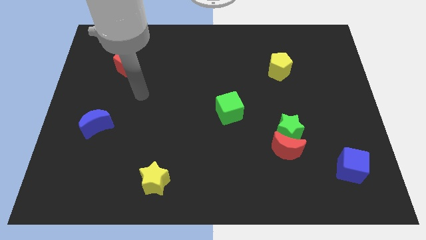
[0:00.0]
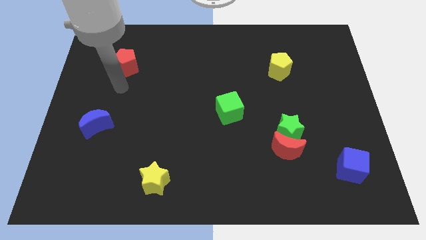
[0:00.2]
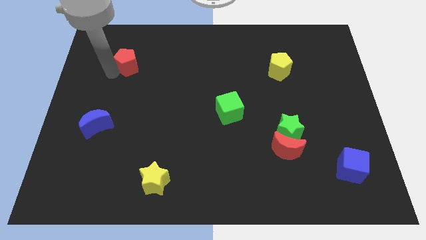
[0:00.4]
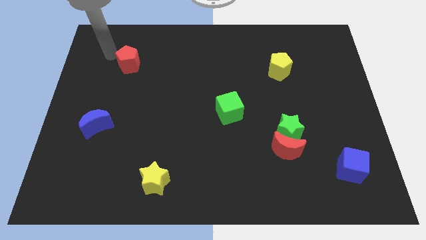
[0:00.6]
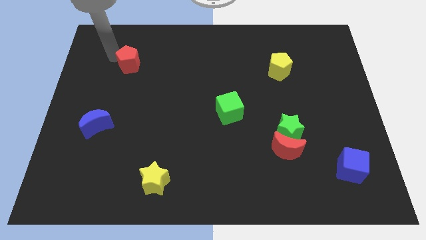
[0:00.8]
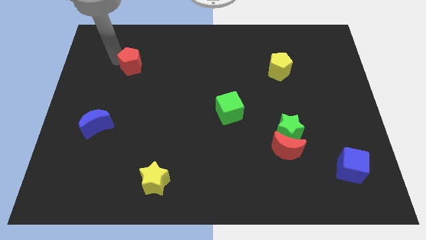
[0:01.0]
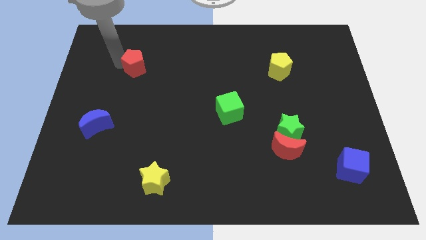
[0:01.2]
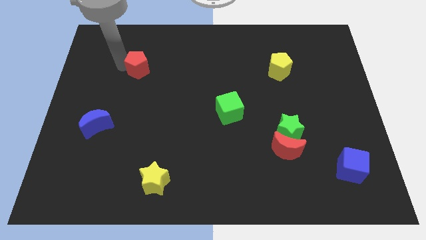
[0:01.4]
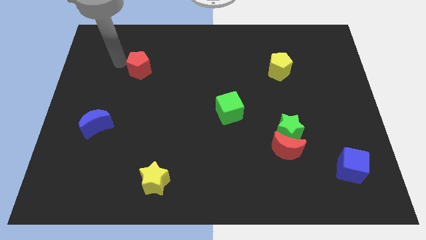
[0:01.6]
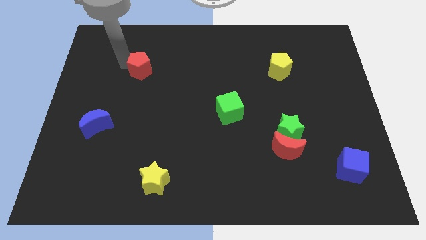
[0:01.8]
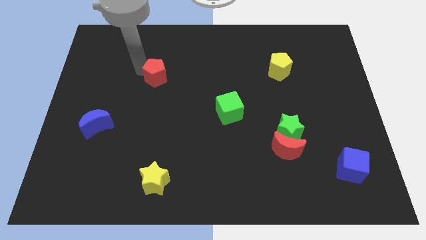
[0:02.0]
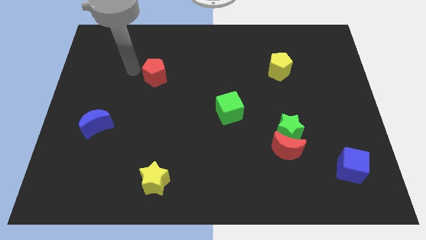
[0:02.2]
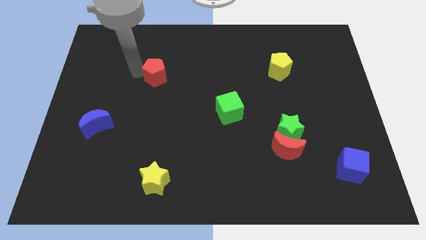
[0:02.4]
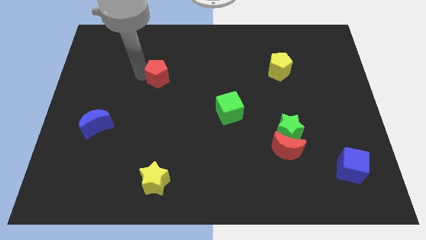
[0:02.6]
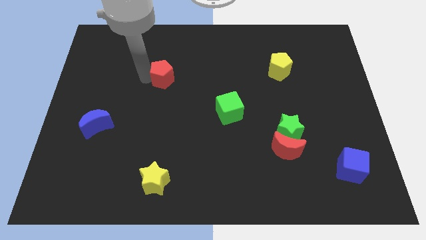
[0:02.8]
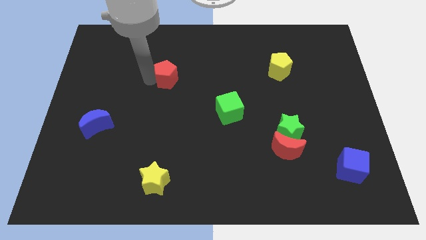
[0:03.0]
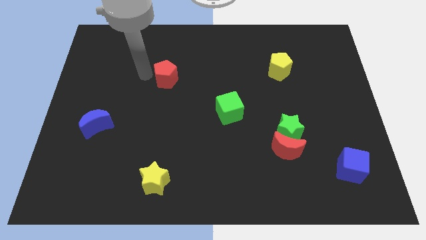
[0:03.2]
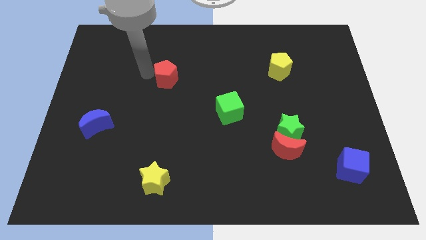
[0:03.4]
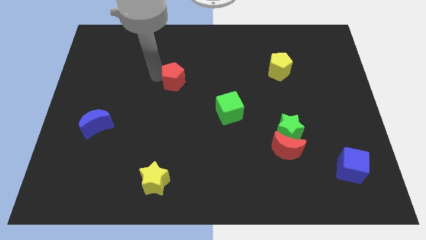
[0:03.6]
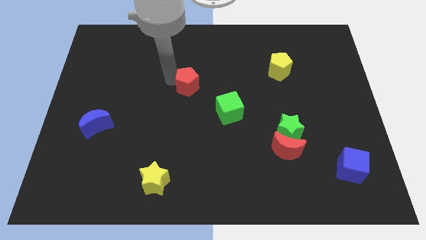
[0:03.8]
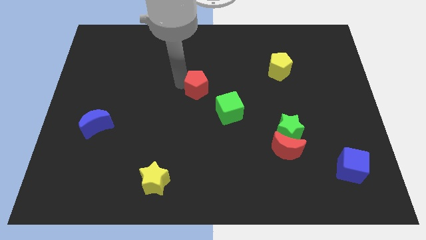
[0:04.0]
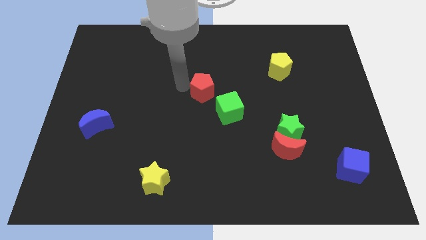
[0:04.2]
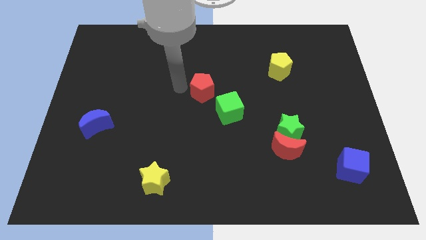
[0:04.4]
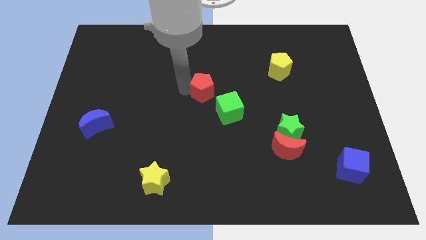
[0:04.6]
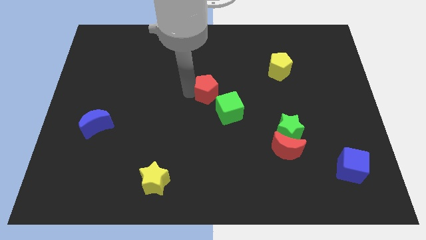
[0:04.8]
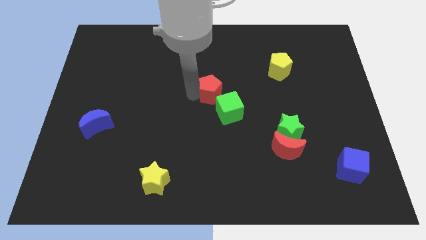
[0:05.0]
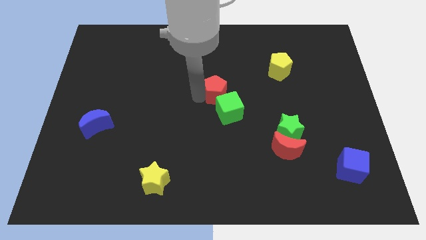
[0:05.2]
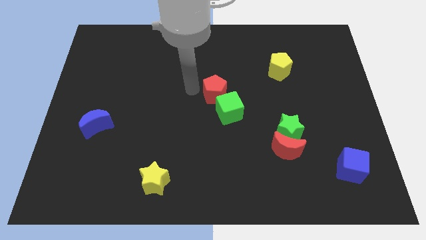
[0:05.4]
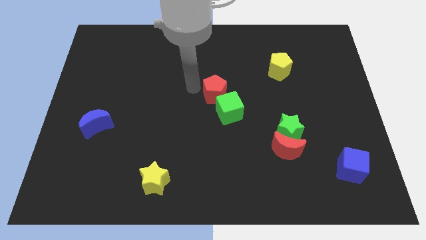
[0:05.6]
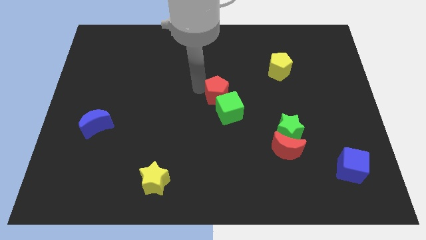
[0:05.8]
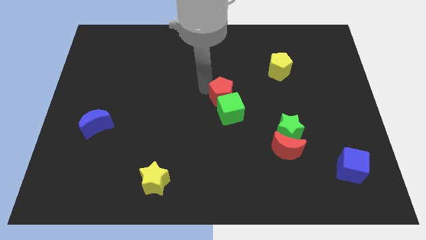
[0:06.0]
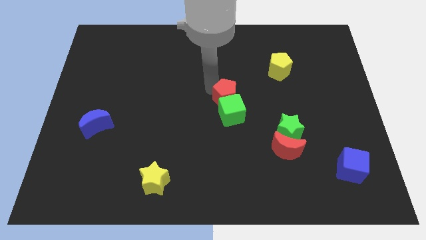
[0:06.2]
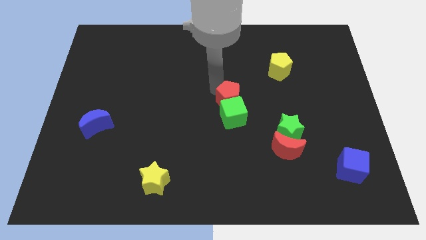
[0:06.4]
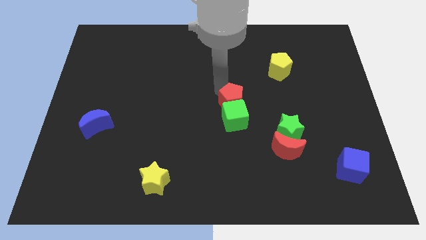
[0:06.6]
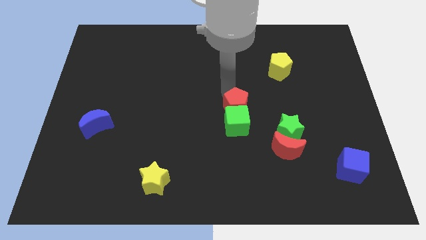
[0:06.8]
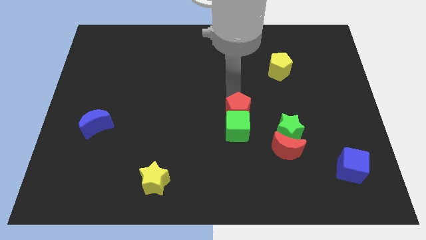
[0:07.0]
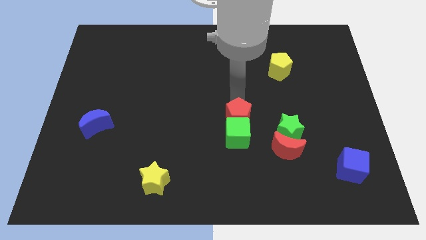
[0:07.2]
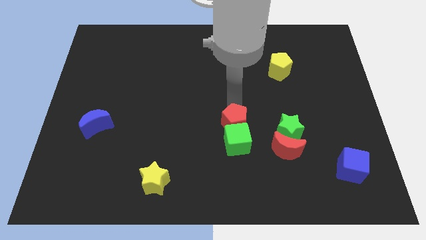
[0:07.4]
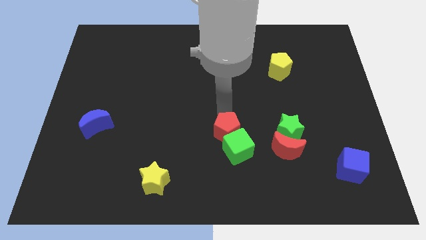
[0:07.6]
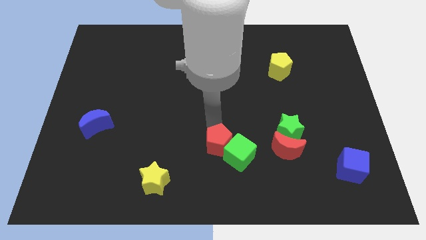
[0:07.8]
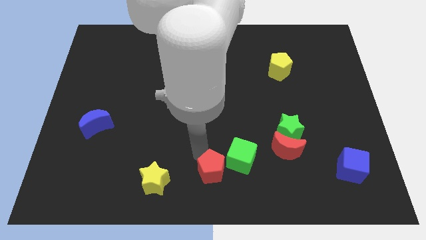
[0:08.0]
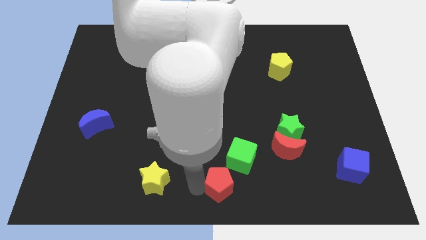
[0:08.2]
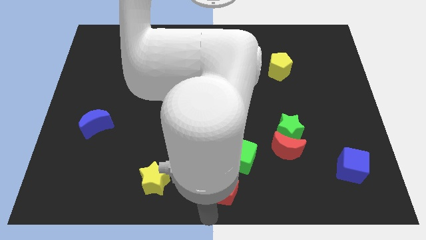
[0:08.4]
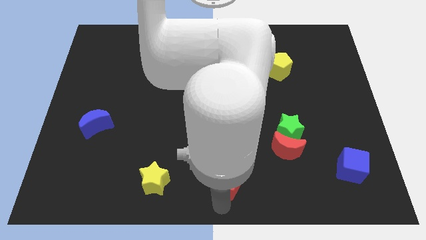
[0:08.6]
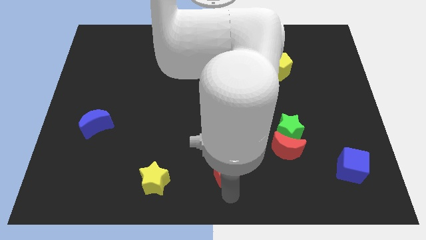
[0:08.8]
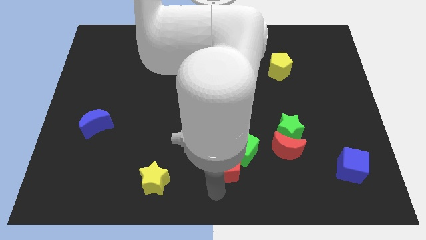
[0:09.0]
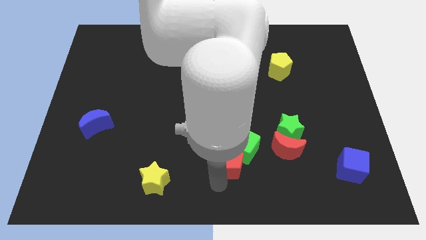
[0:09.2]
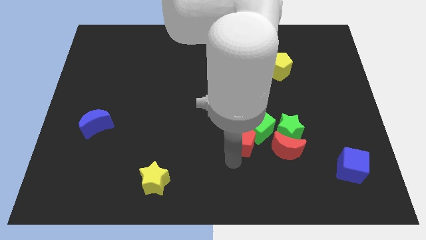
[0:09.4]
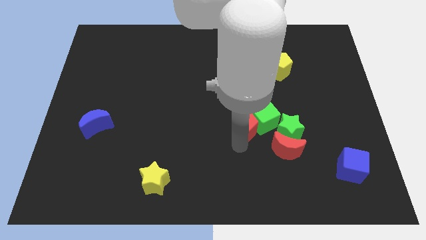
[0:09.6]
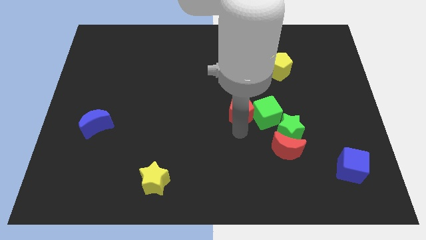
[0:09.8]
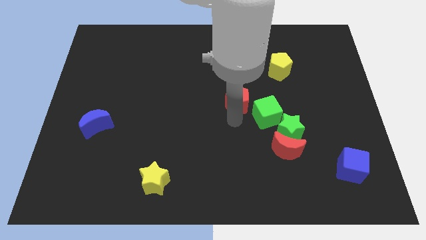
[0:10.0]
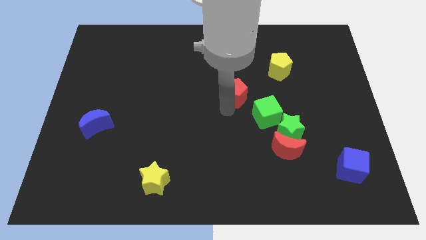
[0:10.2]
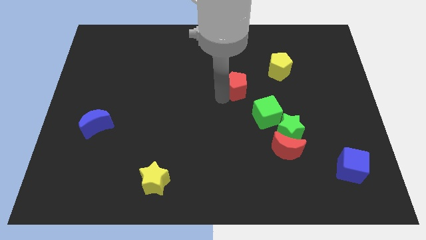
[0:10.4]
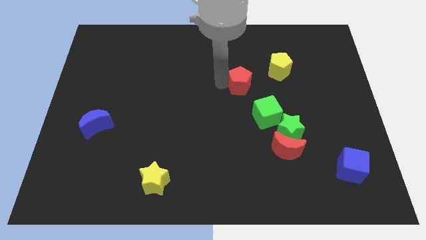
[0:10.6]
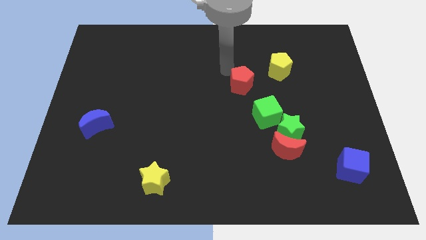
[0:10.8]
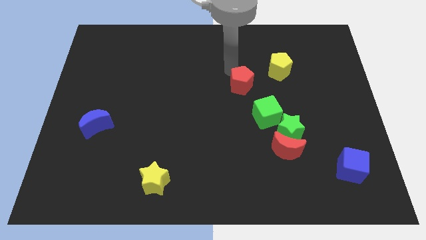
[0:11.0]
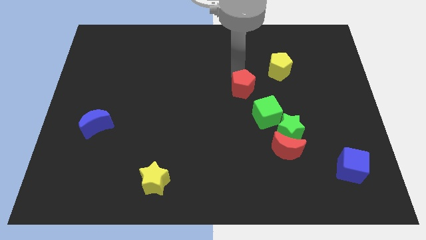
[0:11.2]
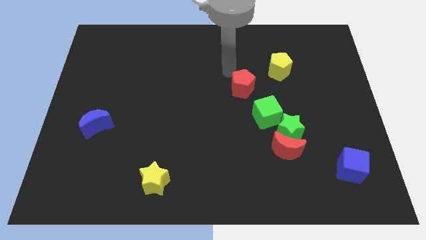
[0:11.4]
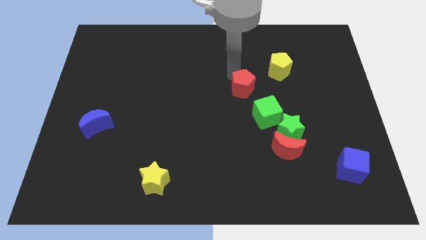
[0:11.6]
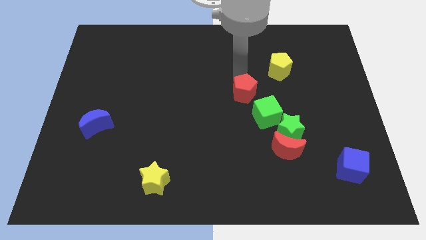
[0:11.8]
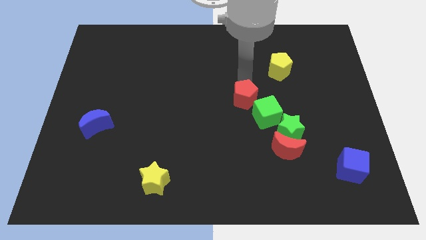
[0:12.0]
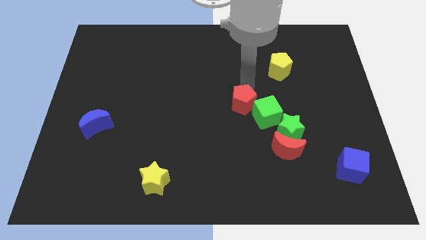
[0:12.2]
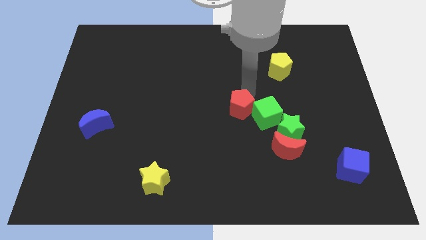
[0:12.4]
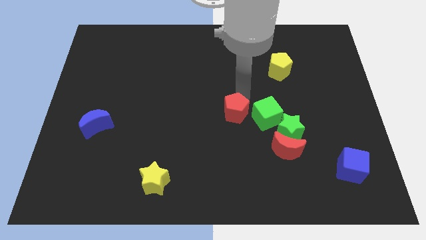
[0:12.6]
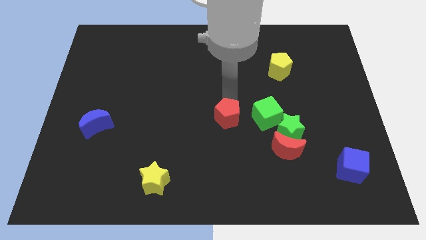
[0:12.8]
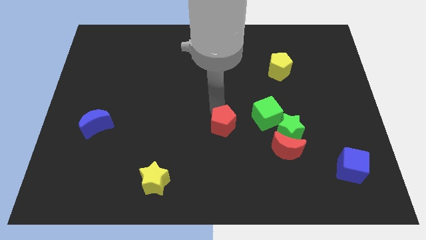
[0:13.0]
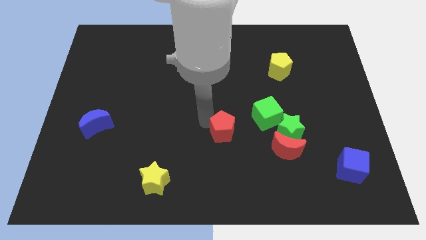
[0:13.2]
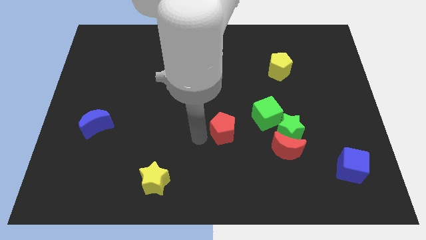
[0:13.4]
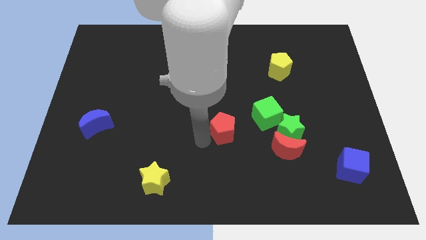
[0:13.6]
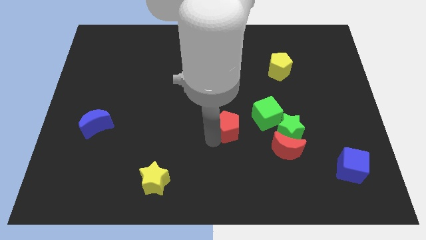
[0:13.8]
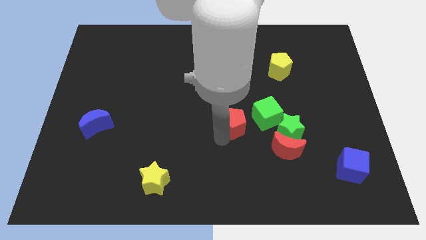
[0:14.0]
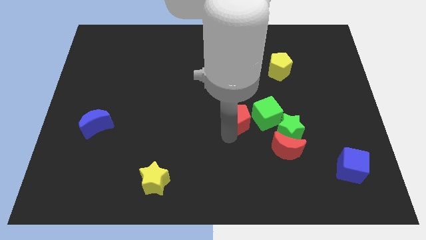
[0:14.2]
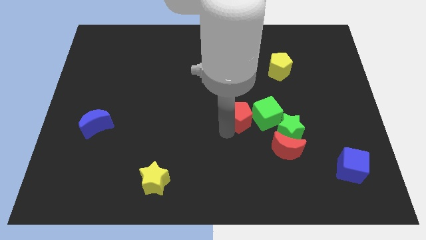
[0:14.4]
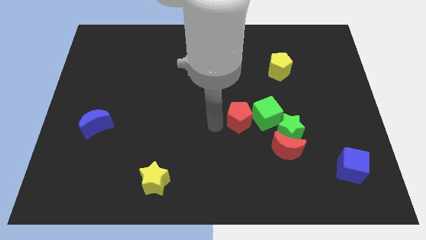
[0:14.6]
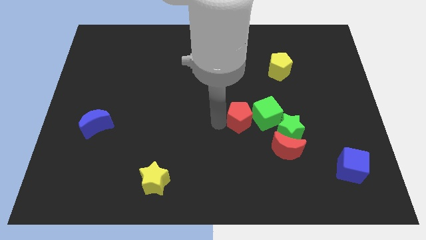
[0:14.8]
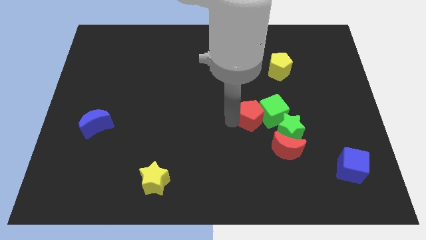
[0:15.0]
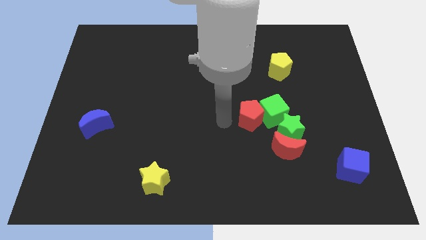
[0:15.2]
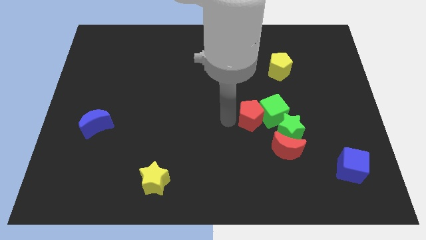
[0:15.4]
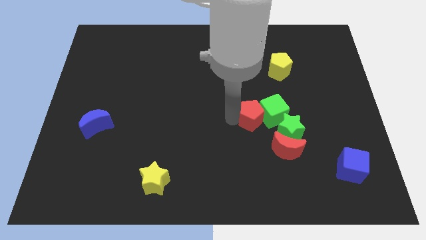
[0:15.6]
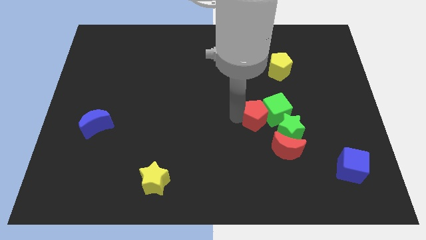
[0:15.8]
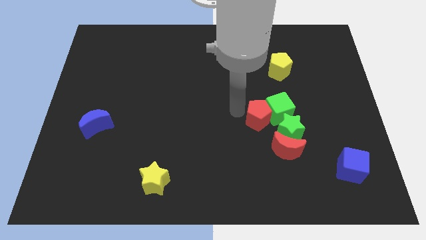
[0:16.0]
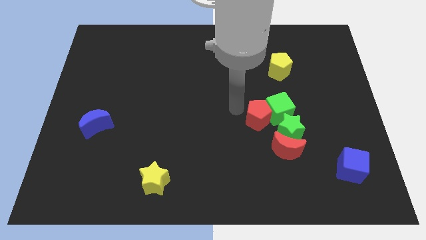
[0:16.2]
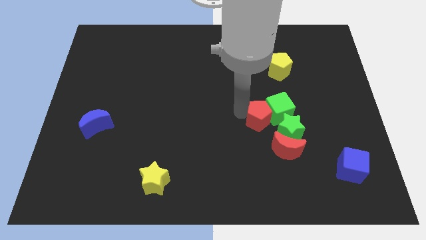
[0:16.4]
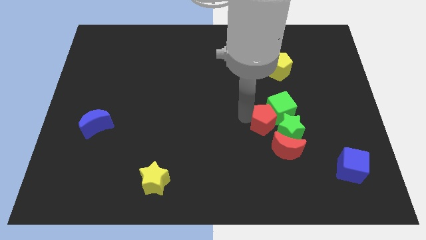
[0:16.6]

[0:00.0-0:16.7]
put the red pentagon to the green star
